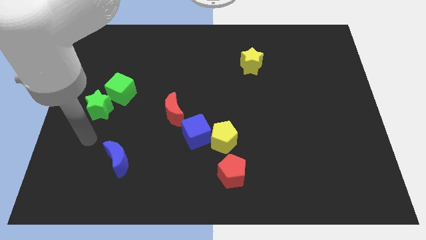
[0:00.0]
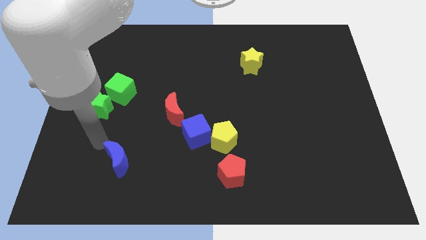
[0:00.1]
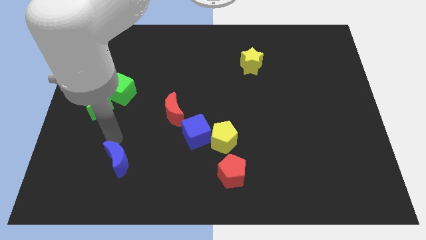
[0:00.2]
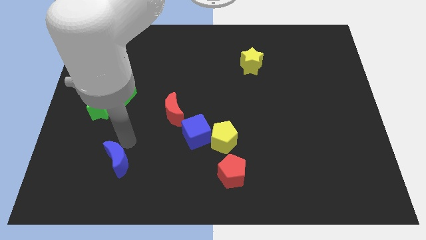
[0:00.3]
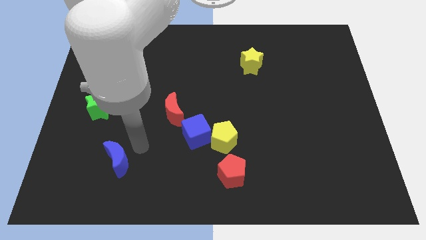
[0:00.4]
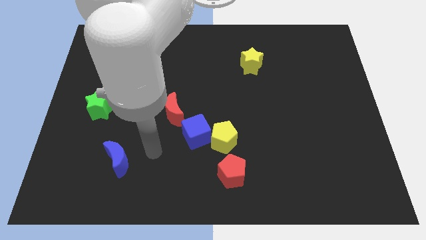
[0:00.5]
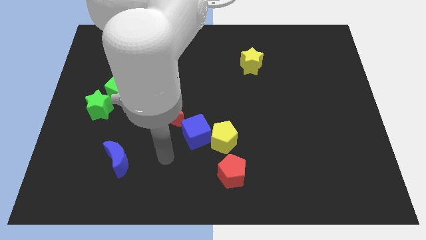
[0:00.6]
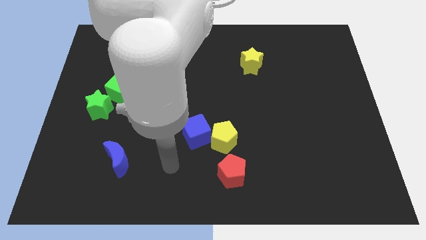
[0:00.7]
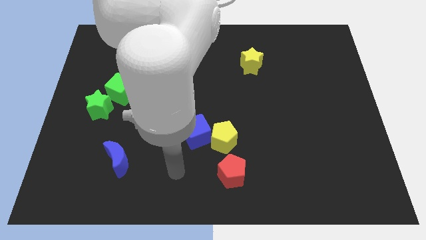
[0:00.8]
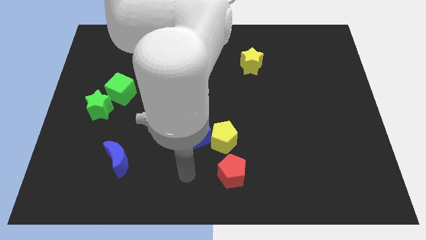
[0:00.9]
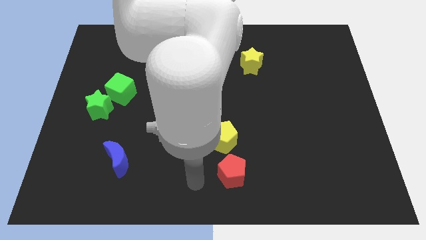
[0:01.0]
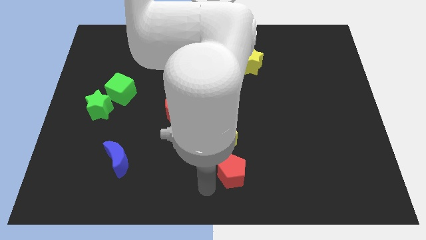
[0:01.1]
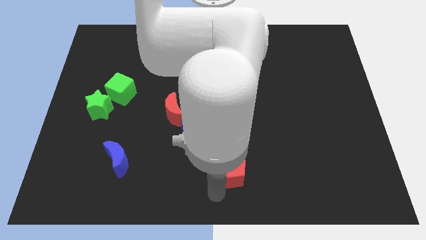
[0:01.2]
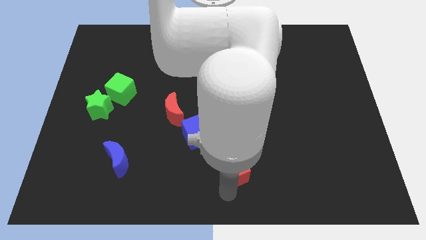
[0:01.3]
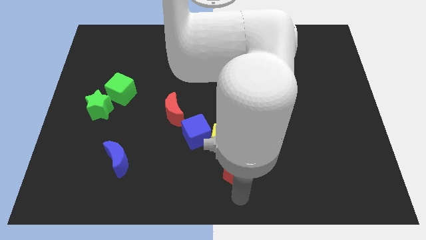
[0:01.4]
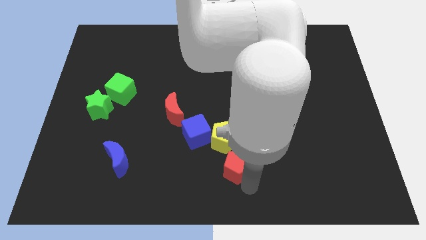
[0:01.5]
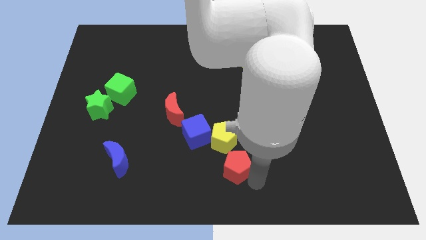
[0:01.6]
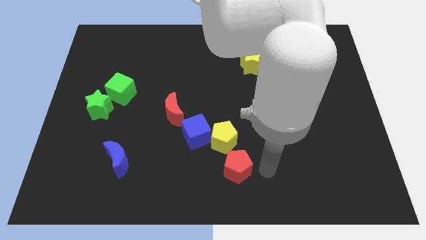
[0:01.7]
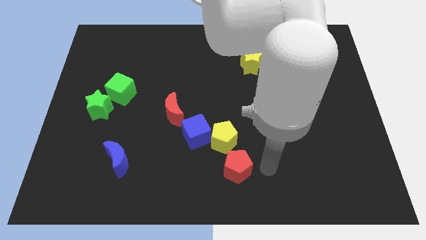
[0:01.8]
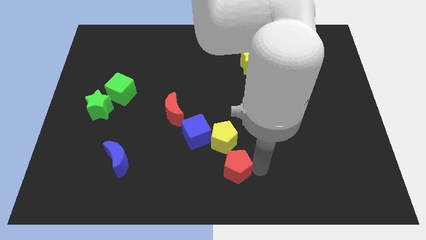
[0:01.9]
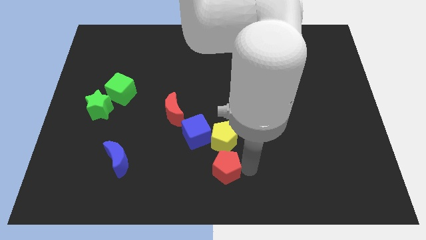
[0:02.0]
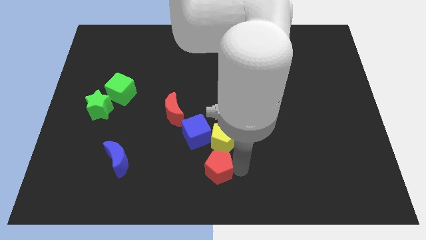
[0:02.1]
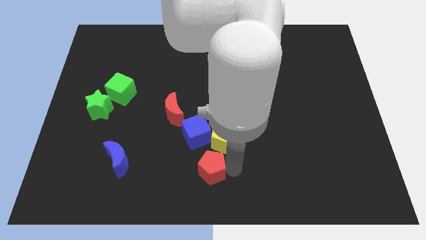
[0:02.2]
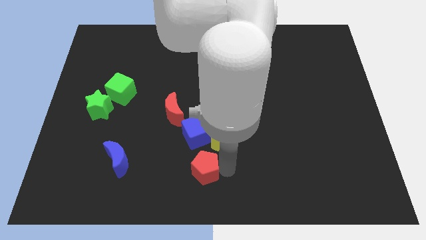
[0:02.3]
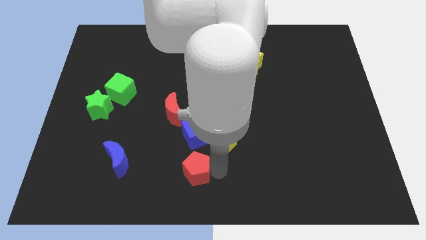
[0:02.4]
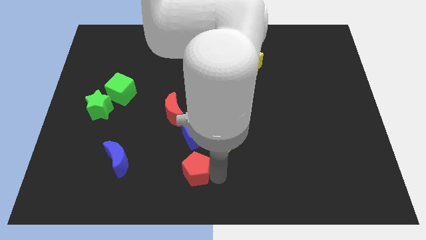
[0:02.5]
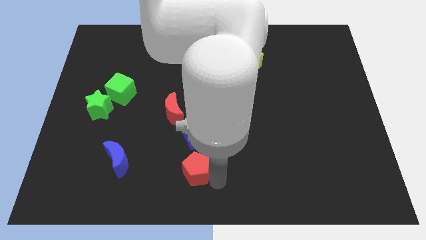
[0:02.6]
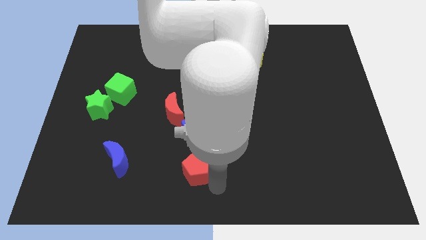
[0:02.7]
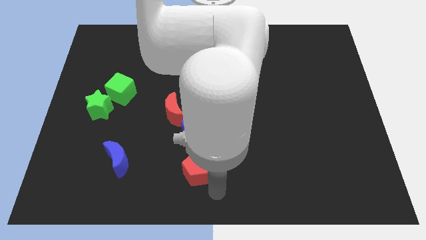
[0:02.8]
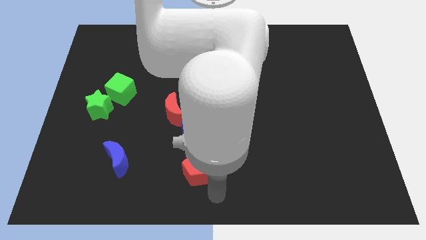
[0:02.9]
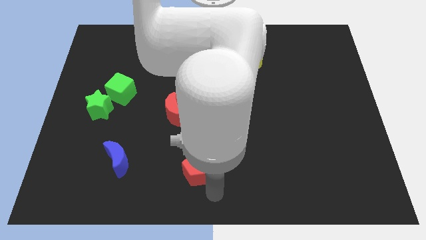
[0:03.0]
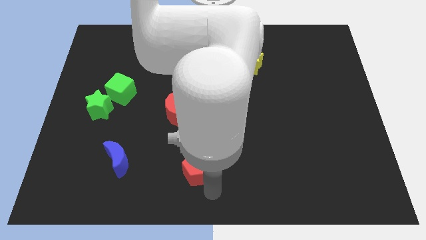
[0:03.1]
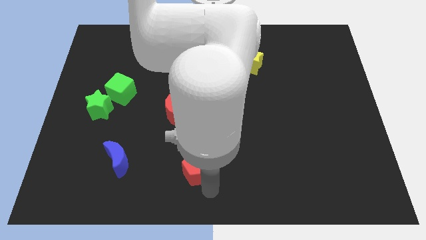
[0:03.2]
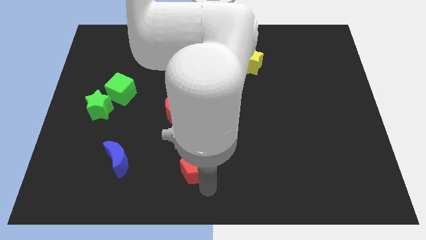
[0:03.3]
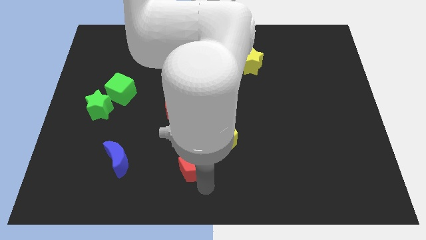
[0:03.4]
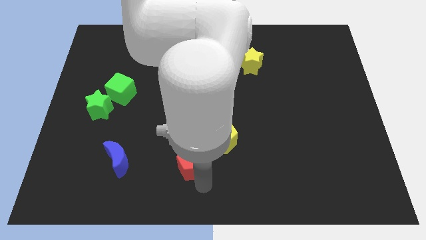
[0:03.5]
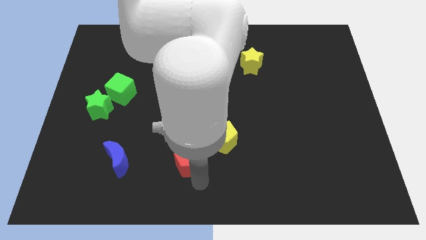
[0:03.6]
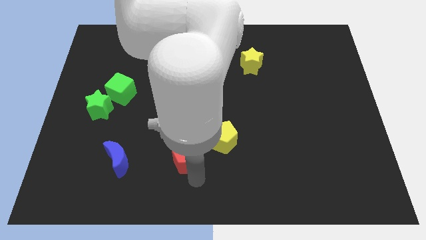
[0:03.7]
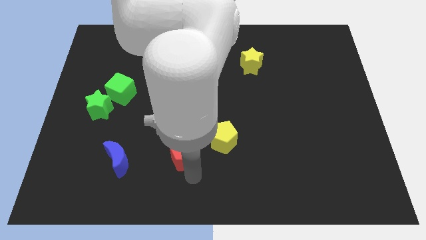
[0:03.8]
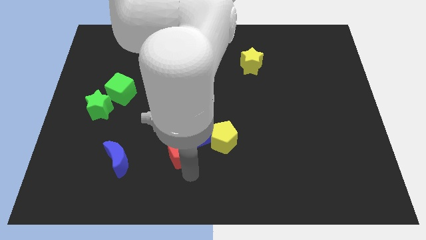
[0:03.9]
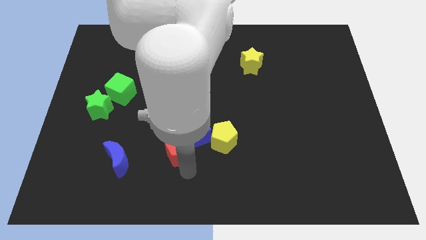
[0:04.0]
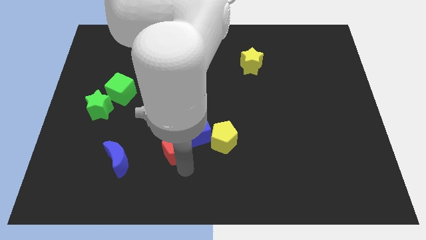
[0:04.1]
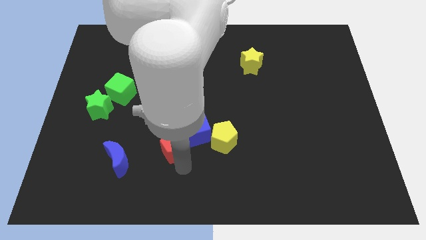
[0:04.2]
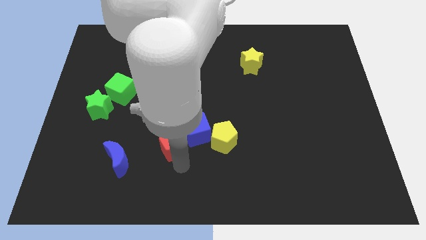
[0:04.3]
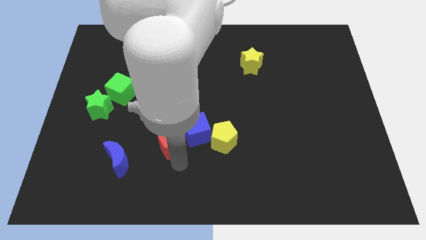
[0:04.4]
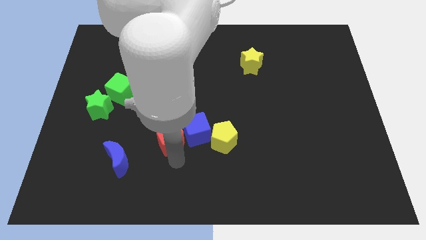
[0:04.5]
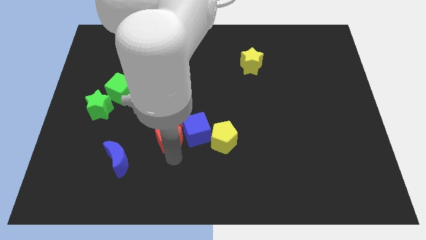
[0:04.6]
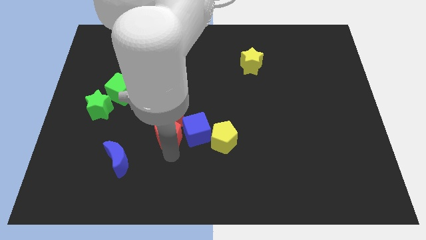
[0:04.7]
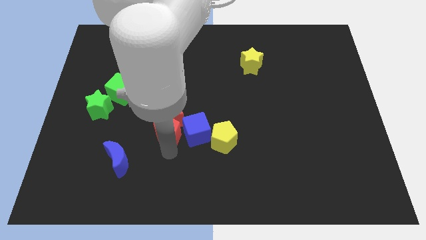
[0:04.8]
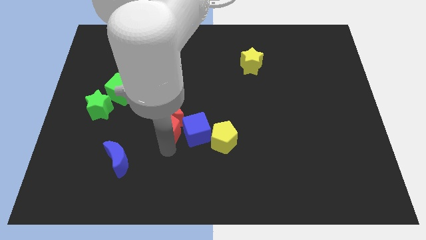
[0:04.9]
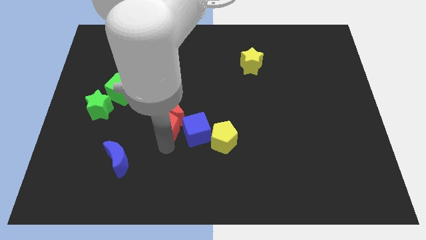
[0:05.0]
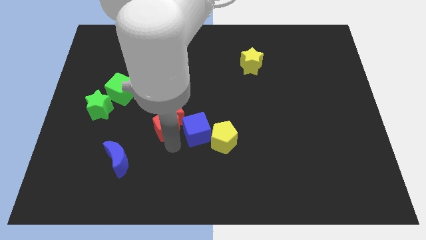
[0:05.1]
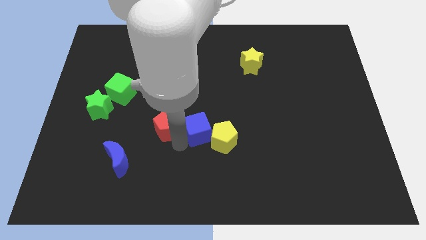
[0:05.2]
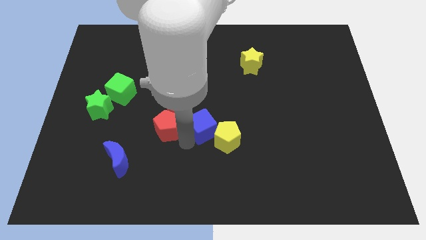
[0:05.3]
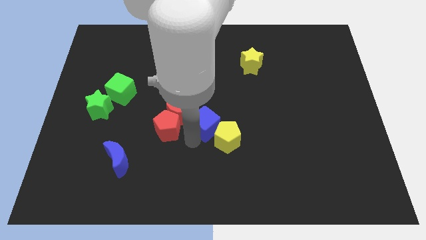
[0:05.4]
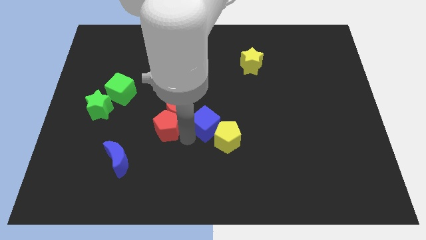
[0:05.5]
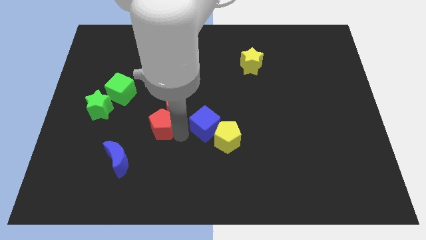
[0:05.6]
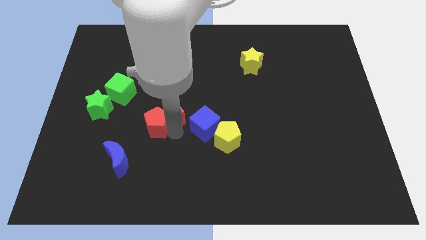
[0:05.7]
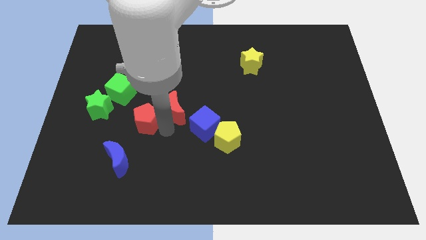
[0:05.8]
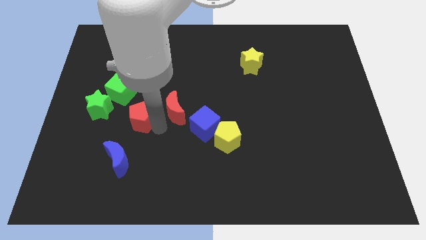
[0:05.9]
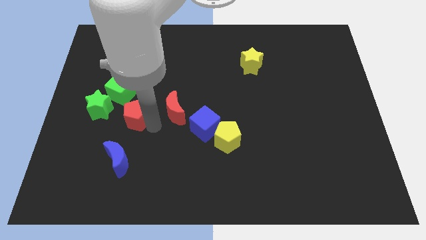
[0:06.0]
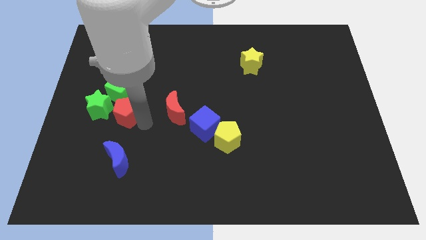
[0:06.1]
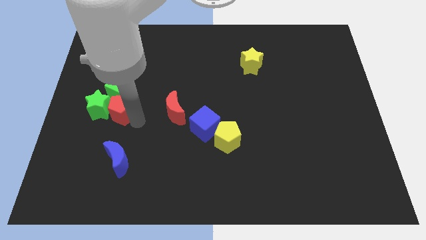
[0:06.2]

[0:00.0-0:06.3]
slide the red pentagon to the green cube

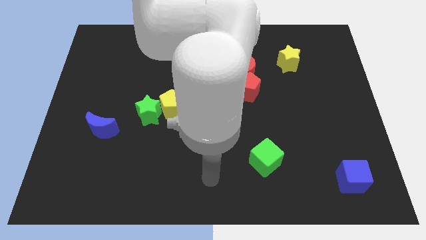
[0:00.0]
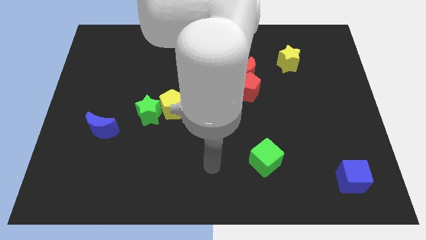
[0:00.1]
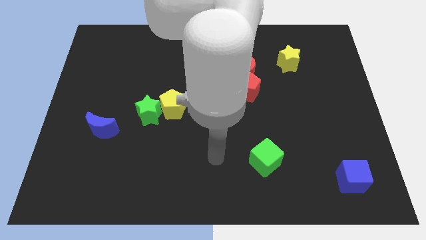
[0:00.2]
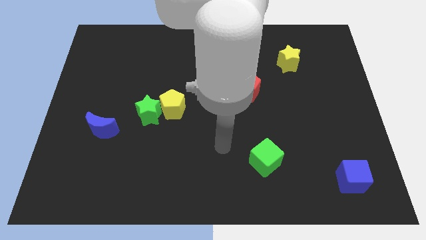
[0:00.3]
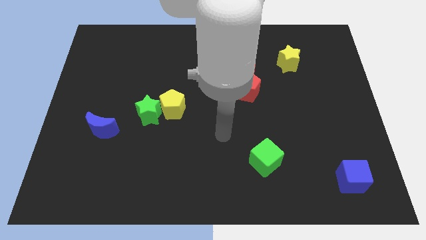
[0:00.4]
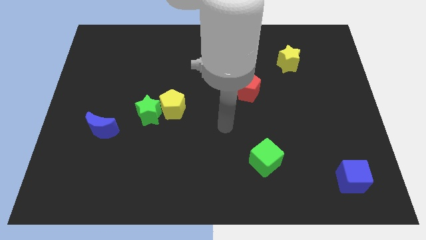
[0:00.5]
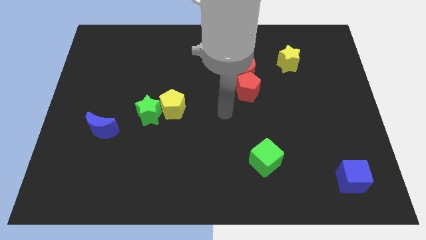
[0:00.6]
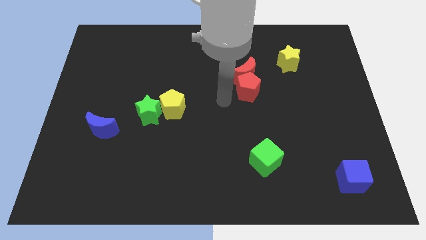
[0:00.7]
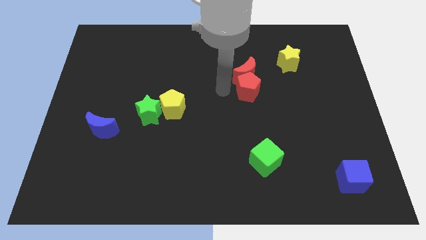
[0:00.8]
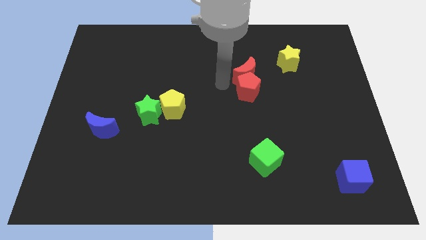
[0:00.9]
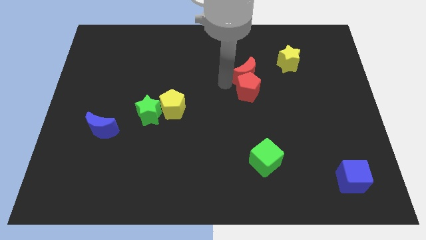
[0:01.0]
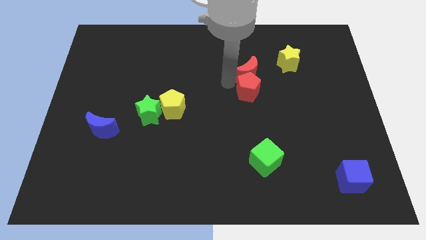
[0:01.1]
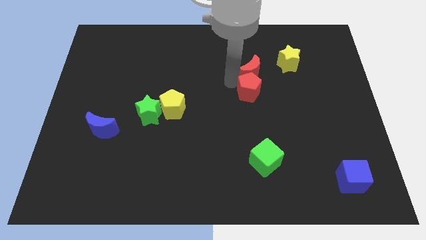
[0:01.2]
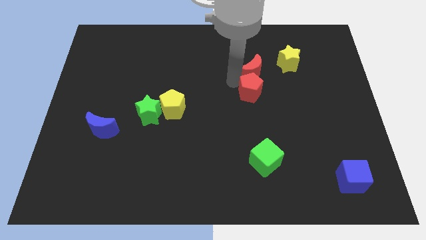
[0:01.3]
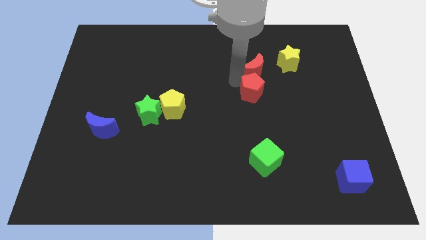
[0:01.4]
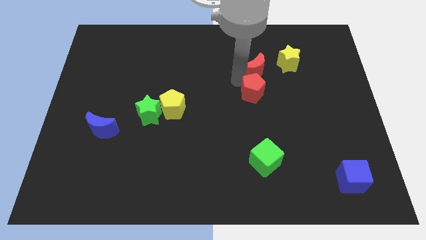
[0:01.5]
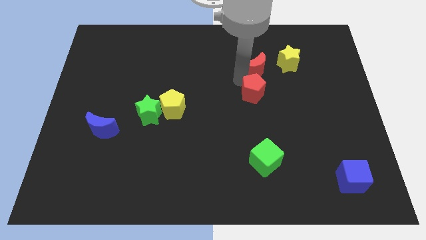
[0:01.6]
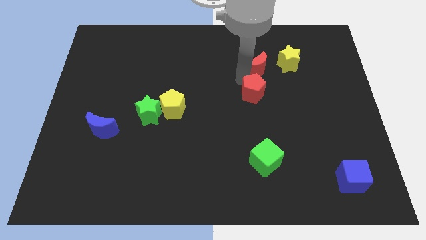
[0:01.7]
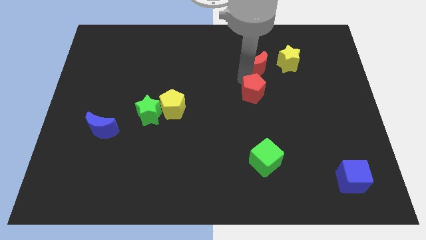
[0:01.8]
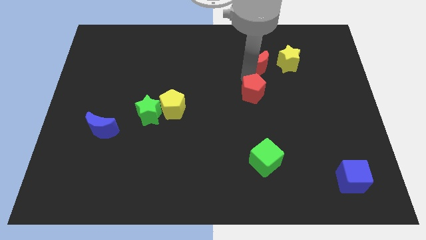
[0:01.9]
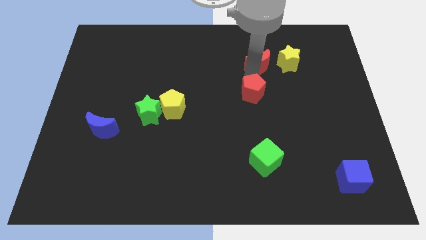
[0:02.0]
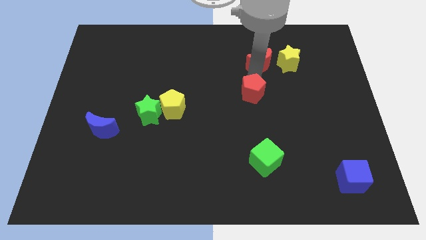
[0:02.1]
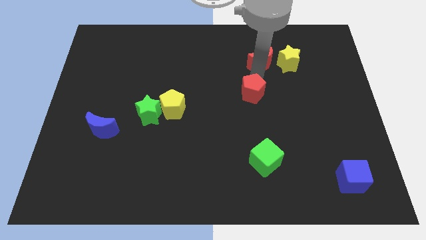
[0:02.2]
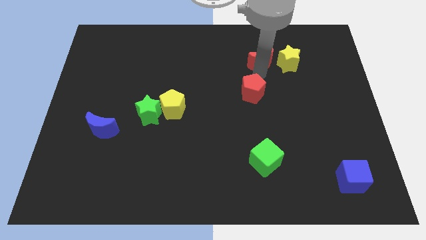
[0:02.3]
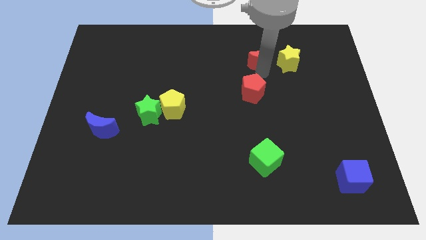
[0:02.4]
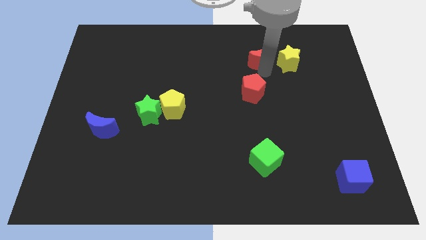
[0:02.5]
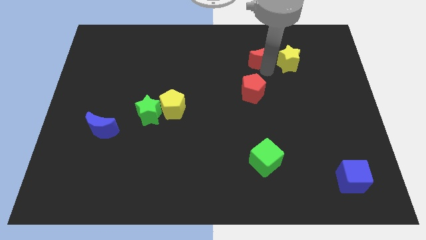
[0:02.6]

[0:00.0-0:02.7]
put the red moon to the yellow star
